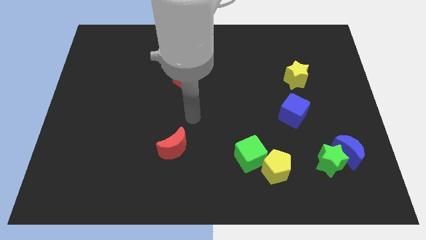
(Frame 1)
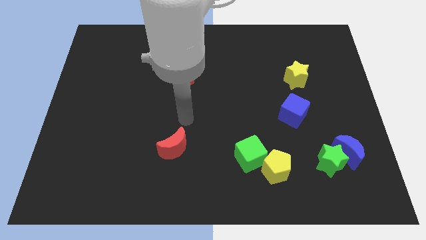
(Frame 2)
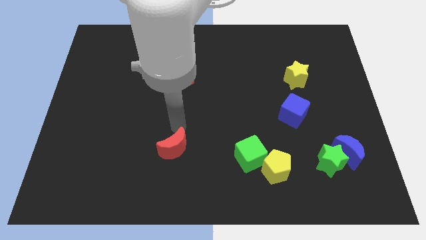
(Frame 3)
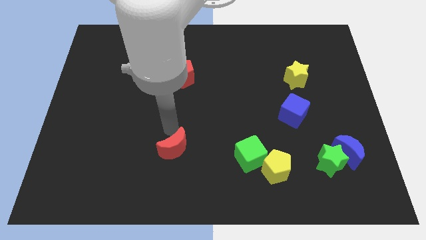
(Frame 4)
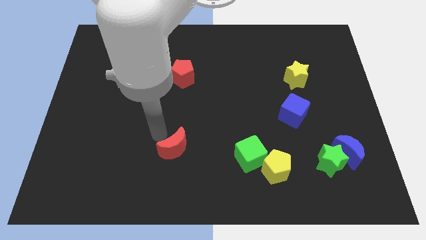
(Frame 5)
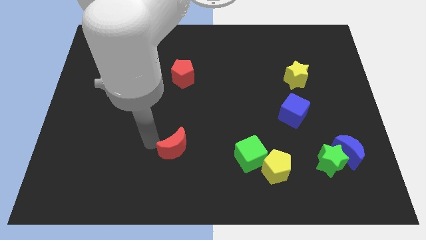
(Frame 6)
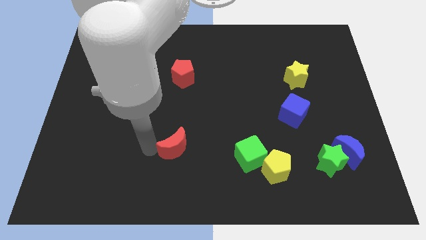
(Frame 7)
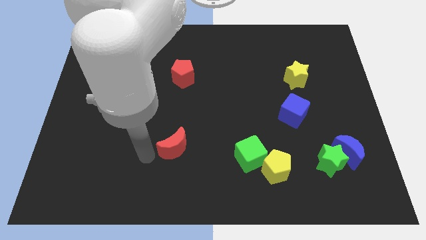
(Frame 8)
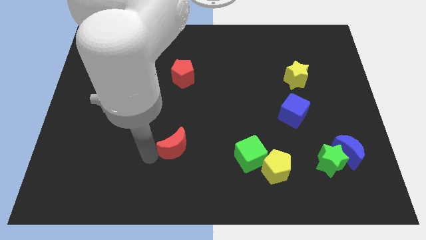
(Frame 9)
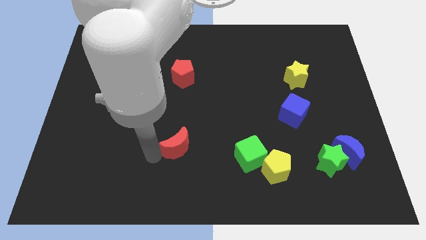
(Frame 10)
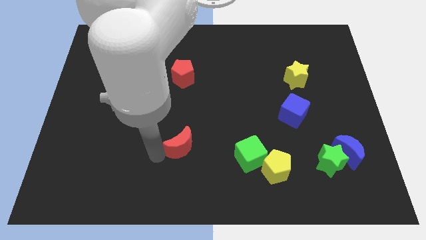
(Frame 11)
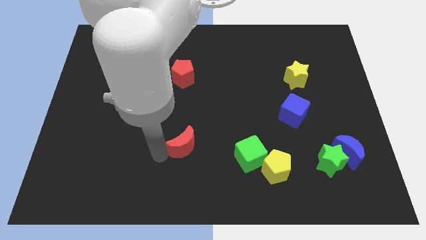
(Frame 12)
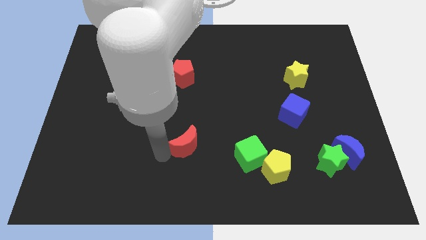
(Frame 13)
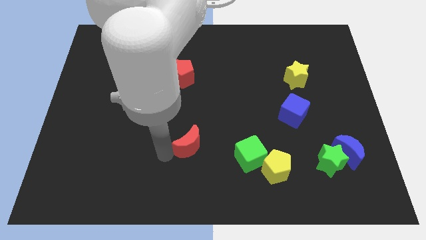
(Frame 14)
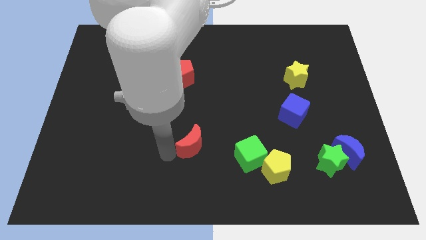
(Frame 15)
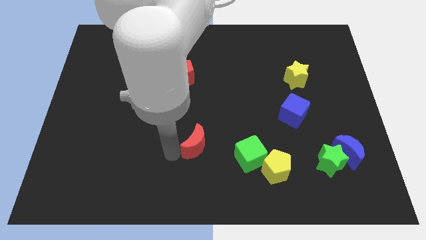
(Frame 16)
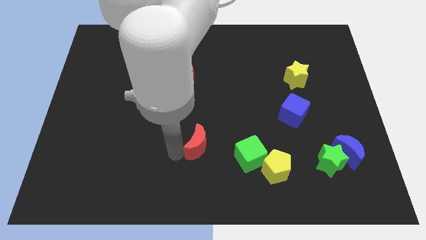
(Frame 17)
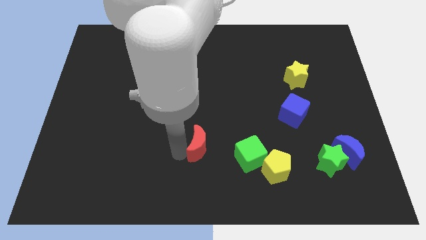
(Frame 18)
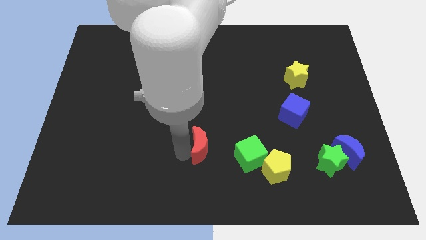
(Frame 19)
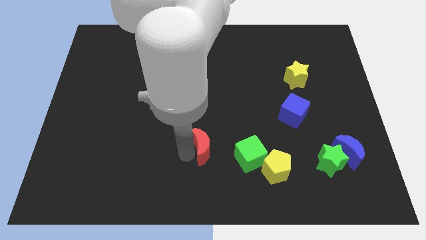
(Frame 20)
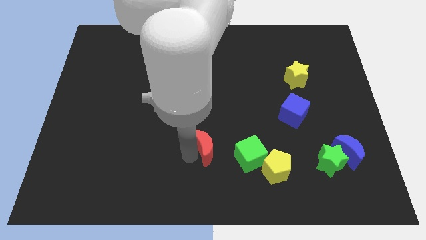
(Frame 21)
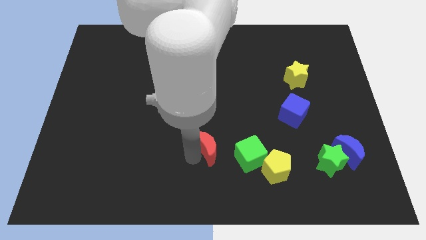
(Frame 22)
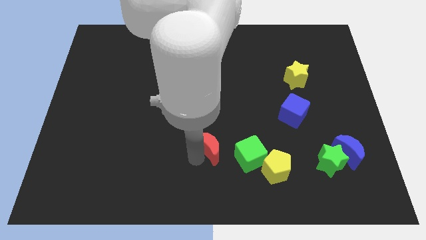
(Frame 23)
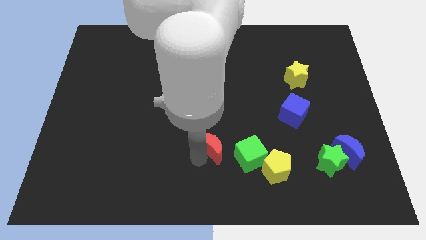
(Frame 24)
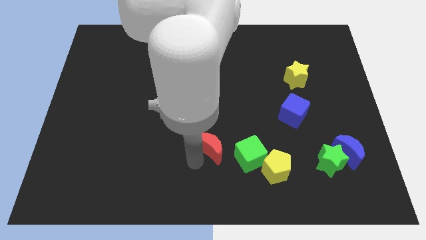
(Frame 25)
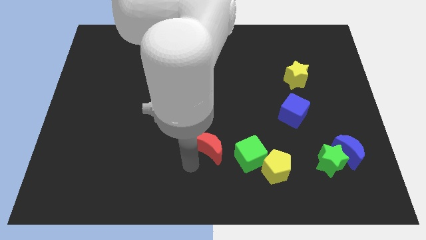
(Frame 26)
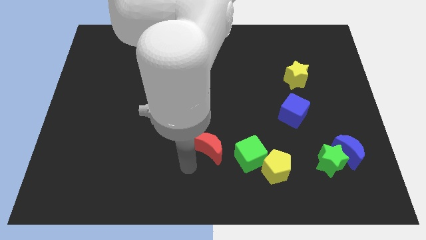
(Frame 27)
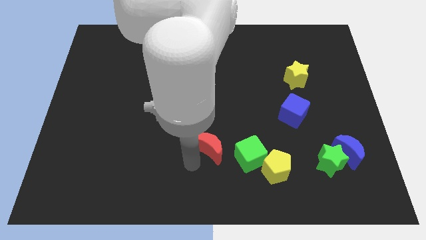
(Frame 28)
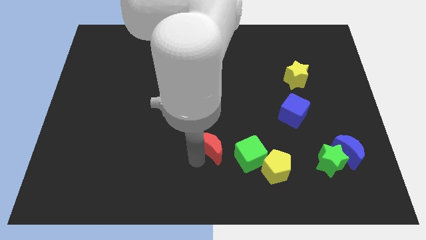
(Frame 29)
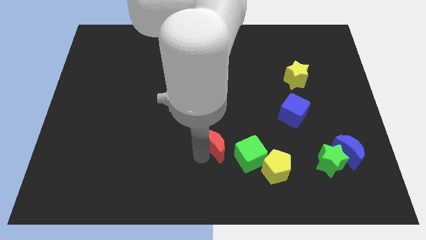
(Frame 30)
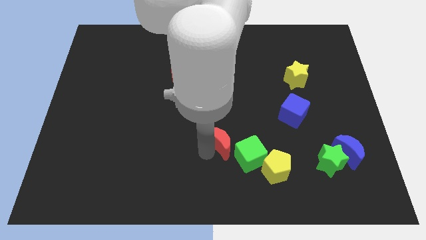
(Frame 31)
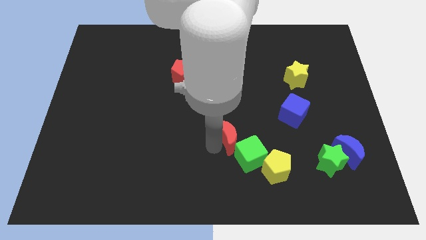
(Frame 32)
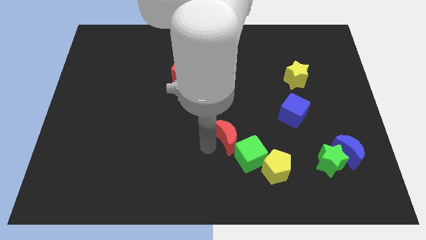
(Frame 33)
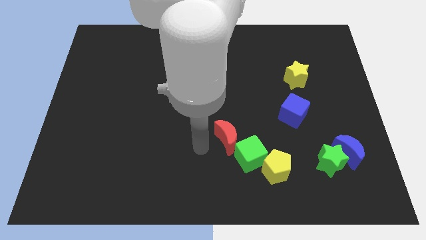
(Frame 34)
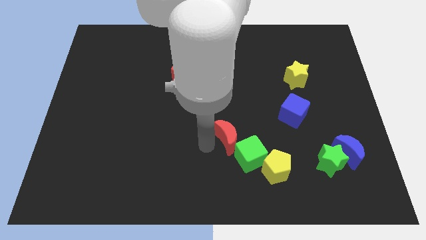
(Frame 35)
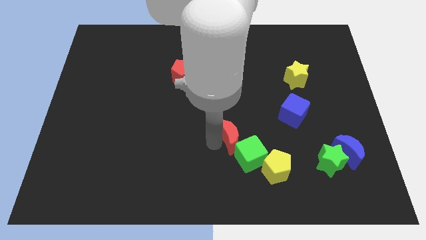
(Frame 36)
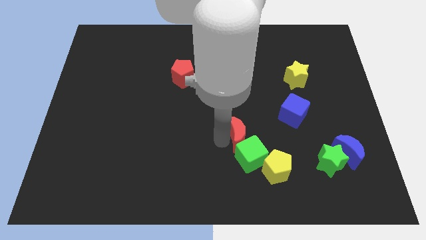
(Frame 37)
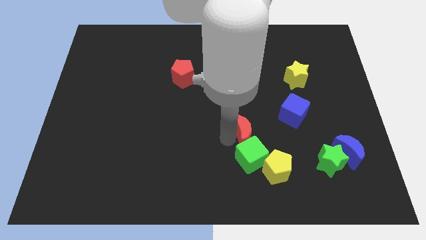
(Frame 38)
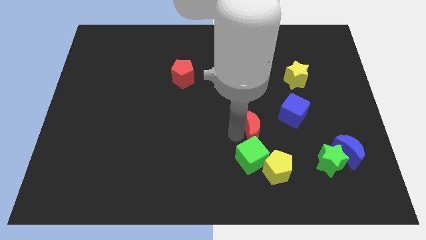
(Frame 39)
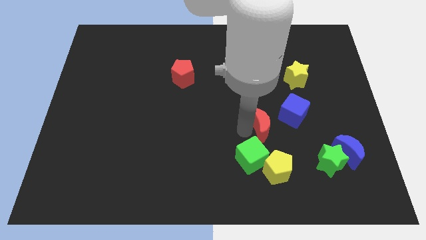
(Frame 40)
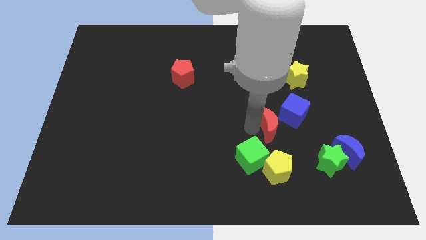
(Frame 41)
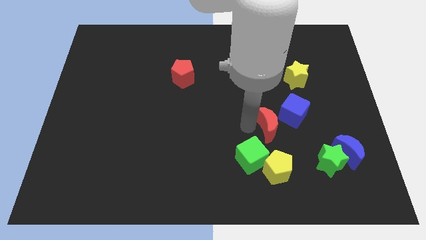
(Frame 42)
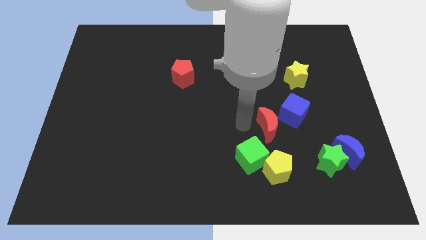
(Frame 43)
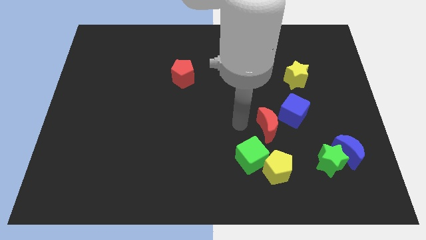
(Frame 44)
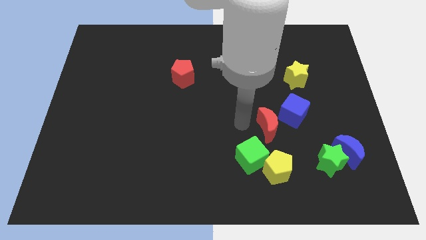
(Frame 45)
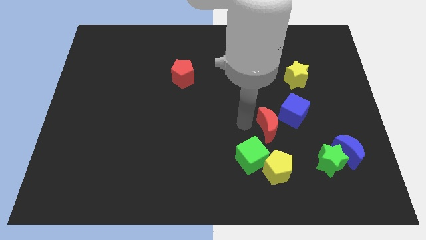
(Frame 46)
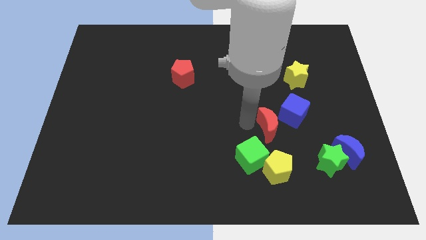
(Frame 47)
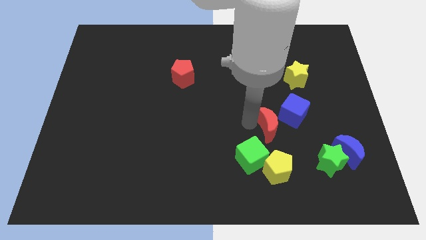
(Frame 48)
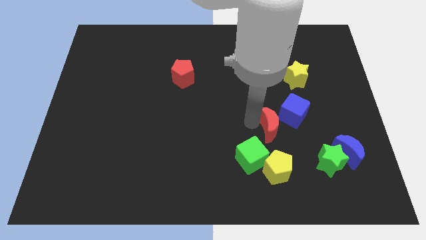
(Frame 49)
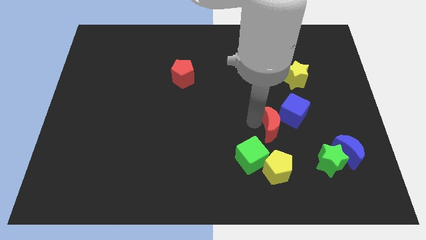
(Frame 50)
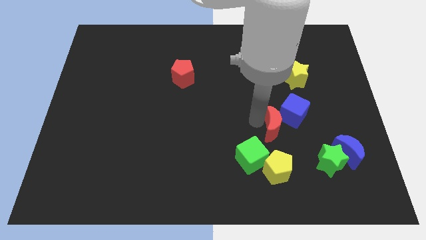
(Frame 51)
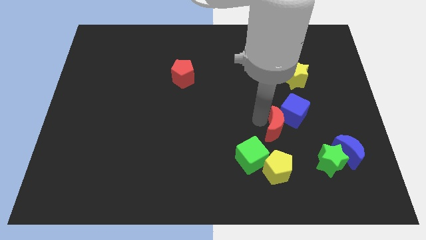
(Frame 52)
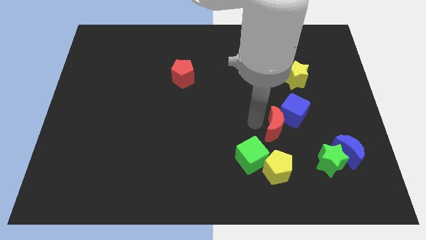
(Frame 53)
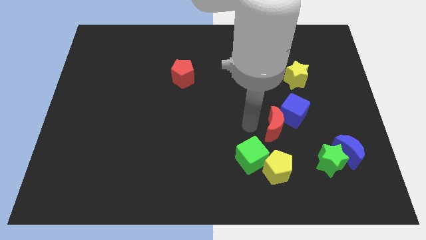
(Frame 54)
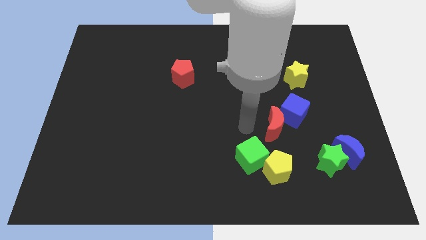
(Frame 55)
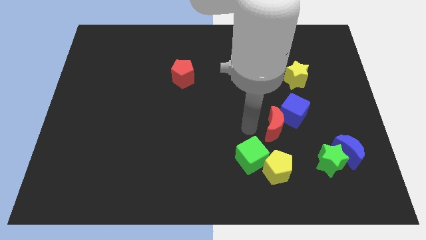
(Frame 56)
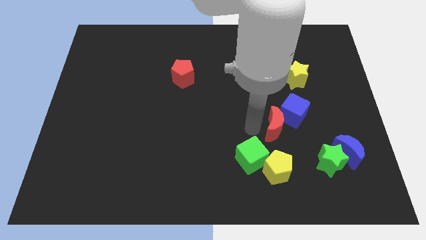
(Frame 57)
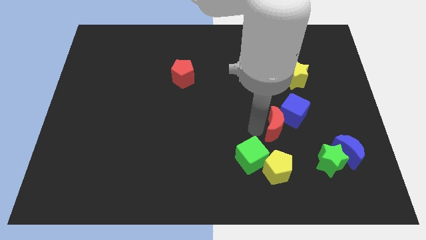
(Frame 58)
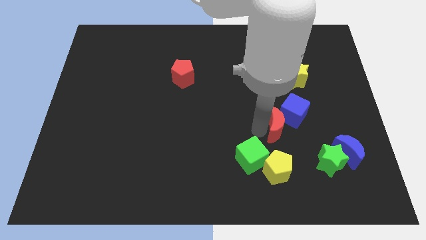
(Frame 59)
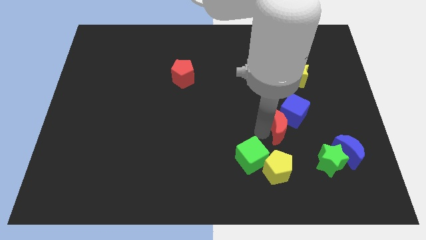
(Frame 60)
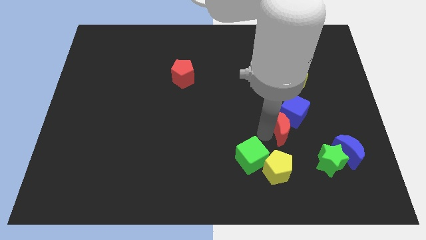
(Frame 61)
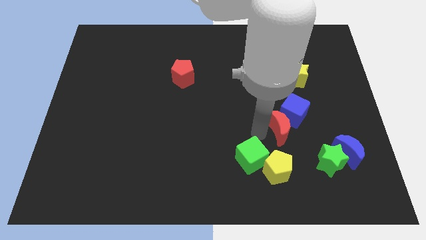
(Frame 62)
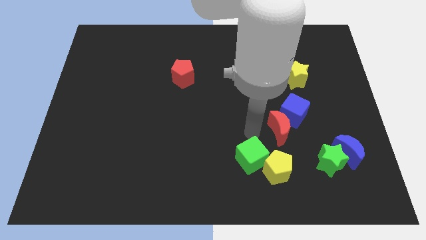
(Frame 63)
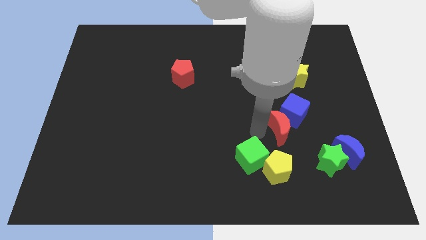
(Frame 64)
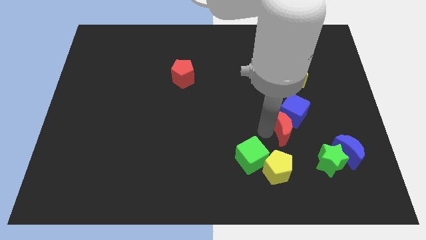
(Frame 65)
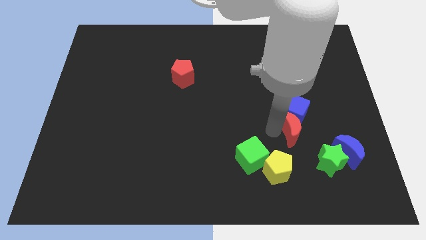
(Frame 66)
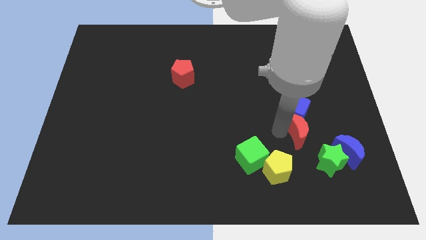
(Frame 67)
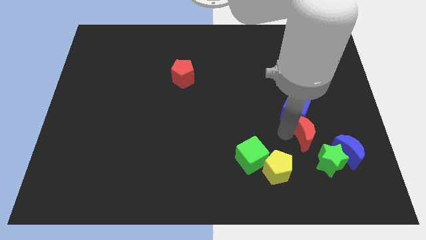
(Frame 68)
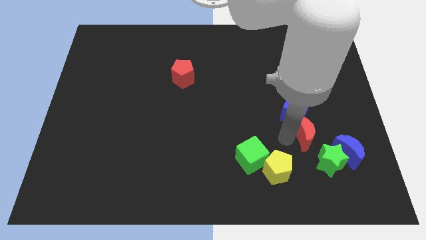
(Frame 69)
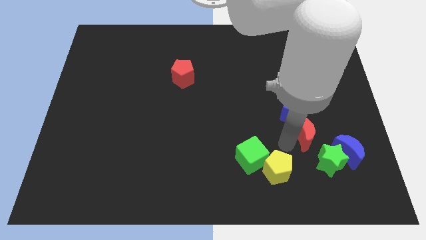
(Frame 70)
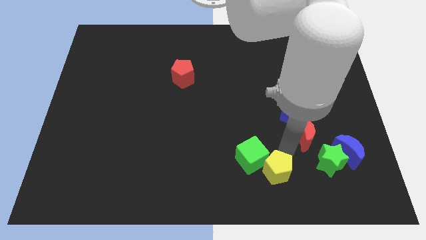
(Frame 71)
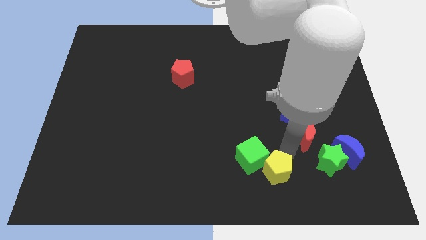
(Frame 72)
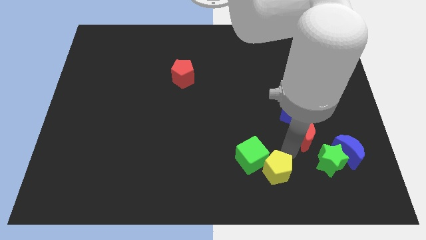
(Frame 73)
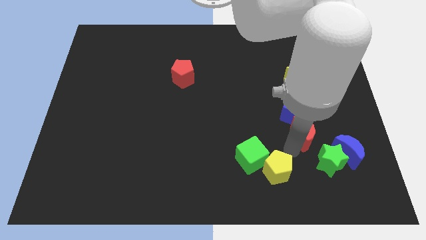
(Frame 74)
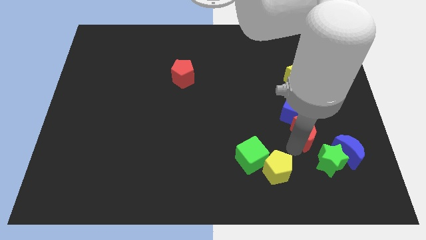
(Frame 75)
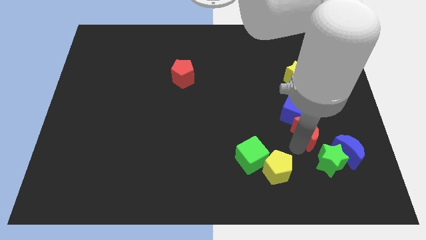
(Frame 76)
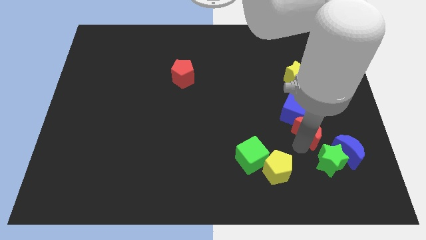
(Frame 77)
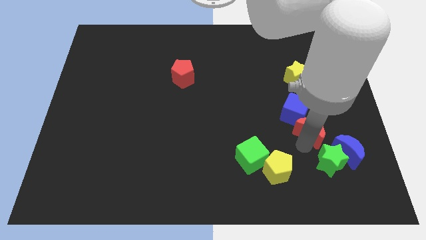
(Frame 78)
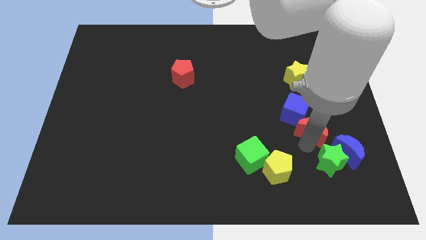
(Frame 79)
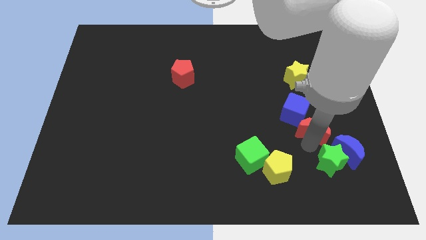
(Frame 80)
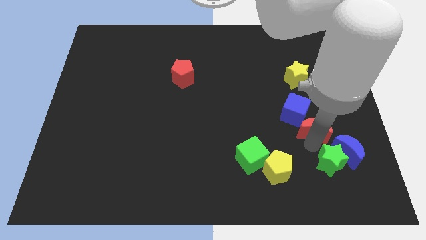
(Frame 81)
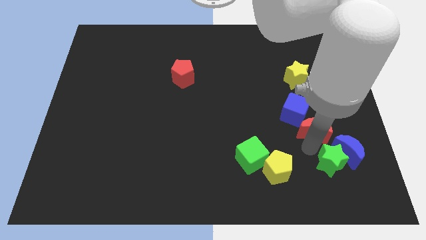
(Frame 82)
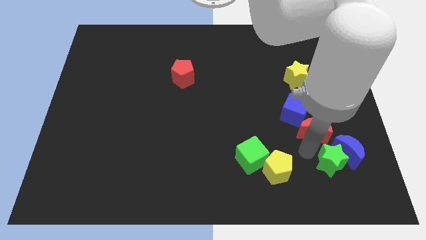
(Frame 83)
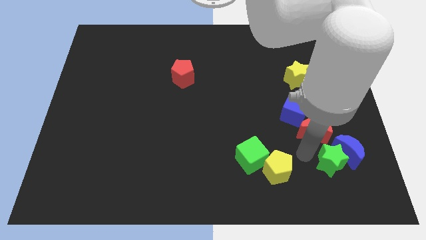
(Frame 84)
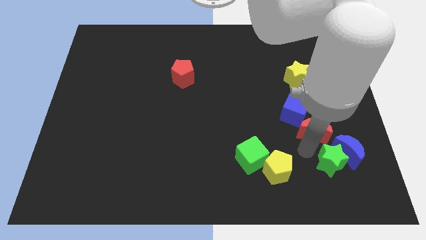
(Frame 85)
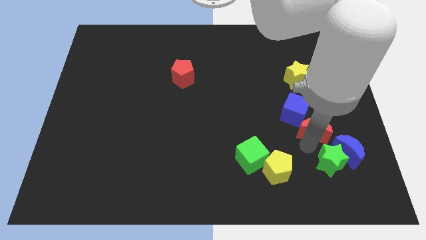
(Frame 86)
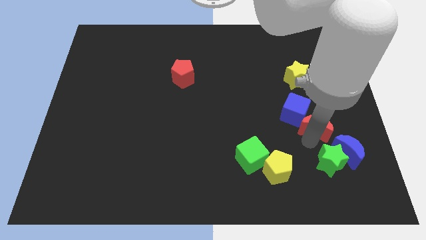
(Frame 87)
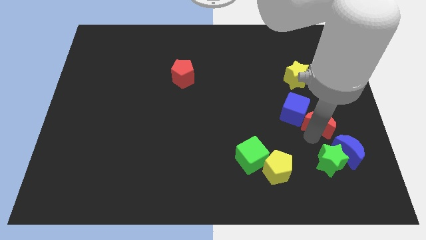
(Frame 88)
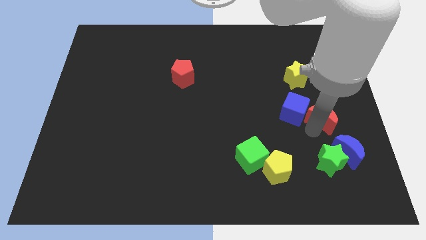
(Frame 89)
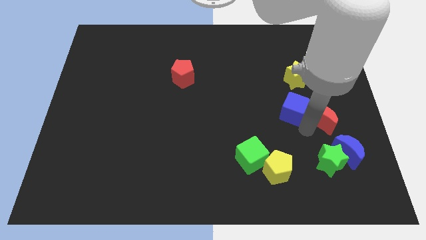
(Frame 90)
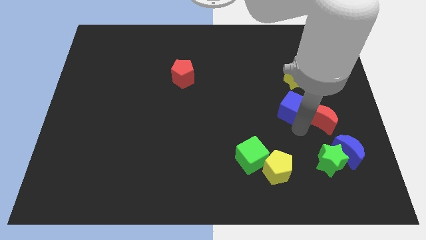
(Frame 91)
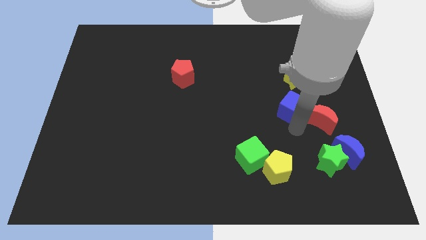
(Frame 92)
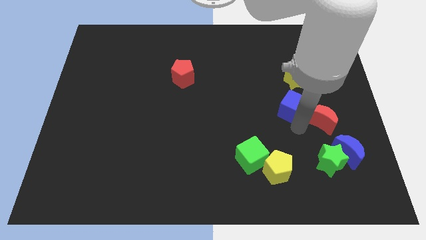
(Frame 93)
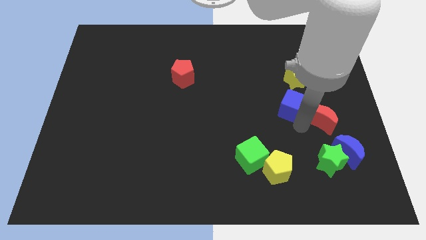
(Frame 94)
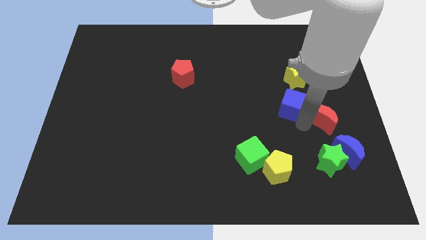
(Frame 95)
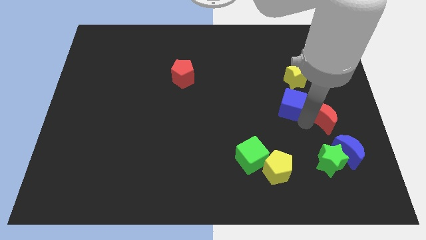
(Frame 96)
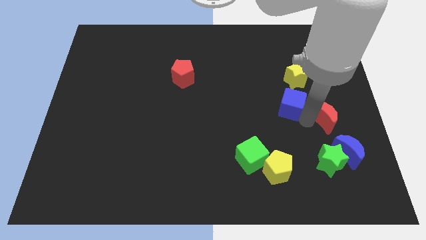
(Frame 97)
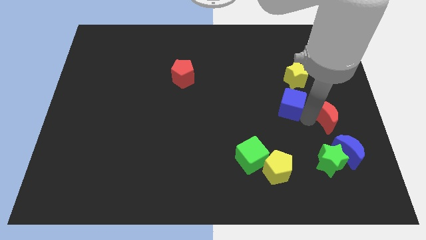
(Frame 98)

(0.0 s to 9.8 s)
put the red moon to the right side of the board
